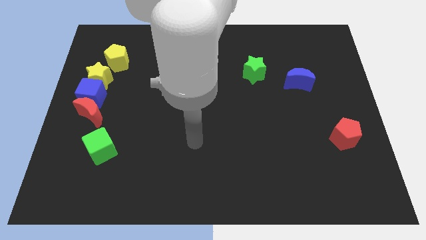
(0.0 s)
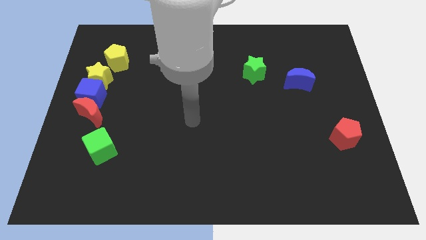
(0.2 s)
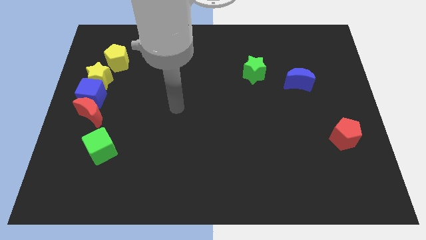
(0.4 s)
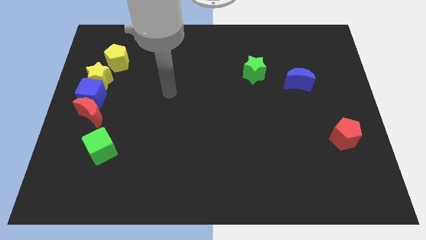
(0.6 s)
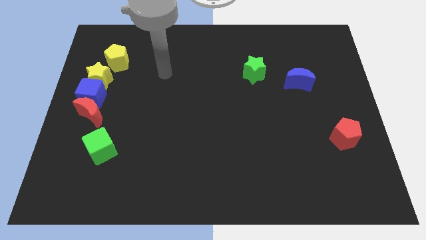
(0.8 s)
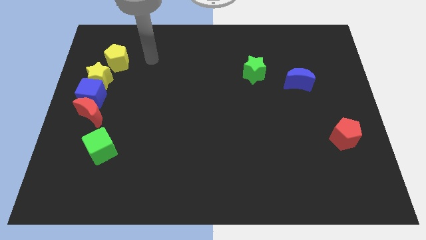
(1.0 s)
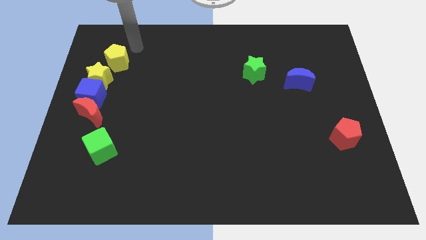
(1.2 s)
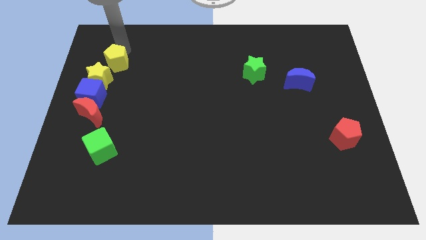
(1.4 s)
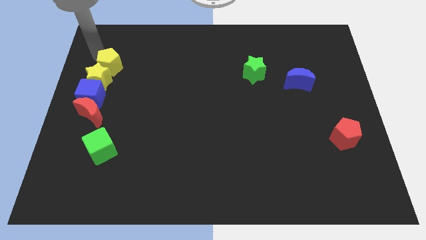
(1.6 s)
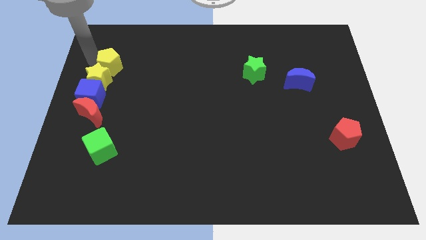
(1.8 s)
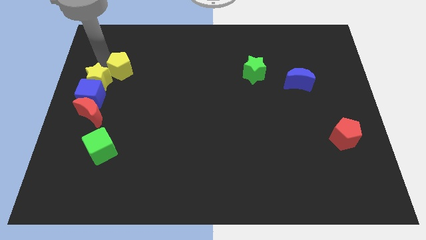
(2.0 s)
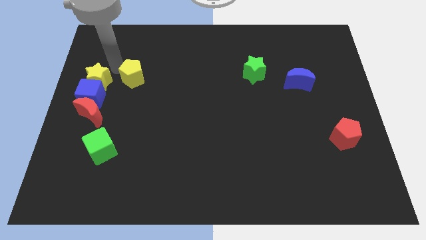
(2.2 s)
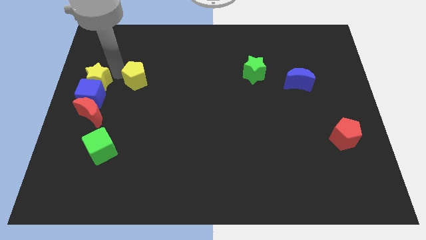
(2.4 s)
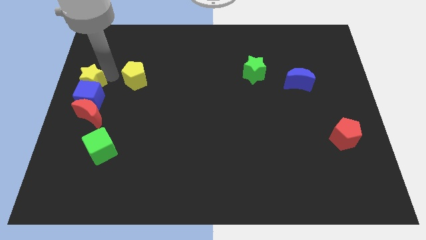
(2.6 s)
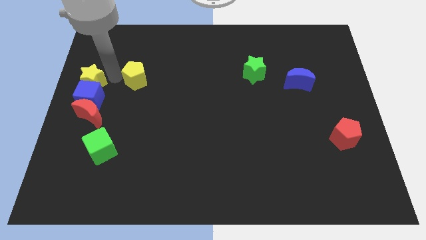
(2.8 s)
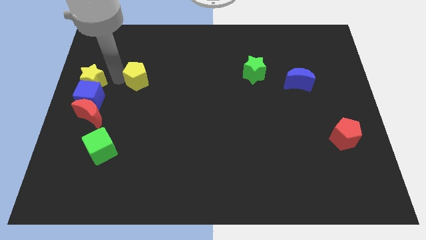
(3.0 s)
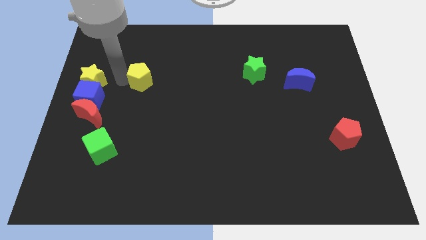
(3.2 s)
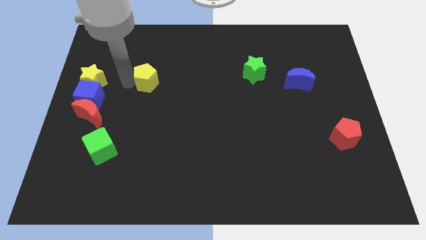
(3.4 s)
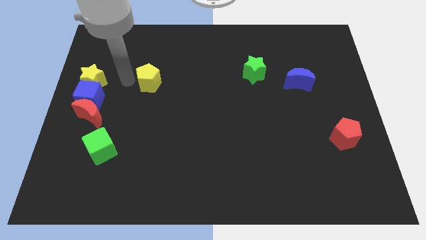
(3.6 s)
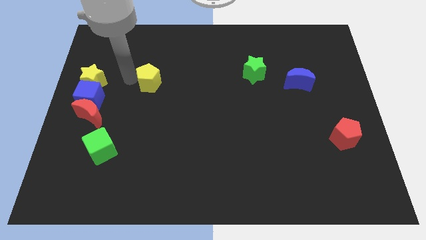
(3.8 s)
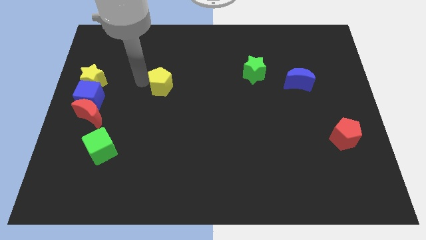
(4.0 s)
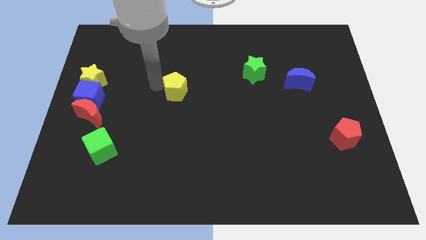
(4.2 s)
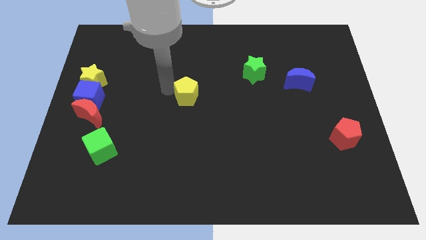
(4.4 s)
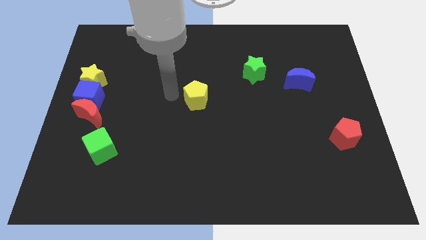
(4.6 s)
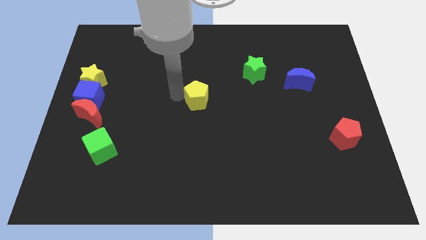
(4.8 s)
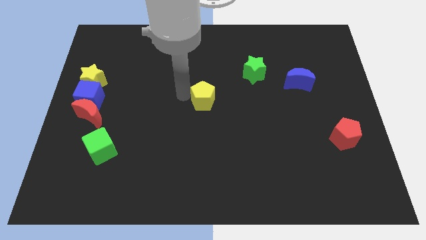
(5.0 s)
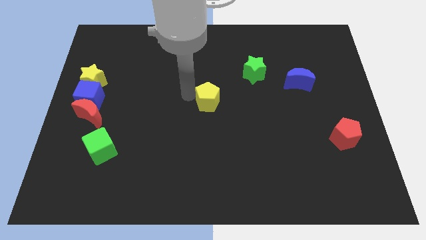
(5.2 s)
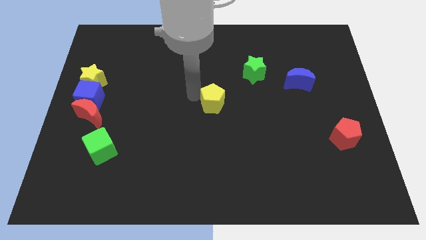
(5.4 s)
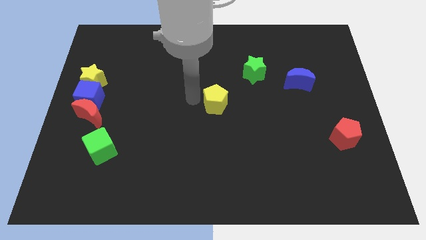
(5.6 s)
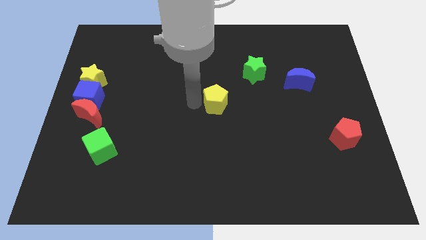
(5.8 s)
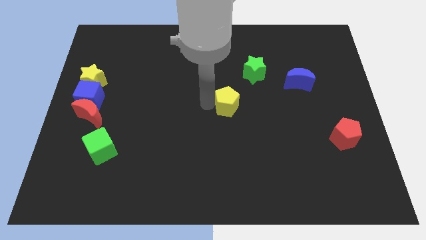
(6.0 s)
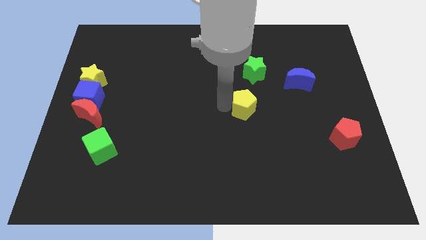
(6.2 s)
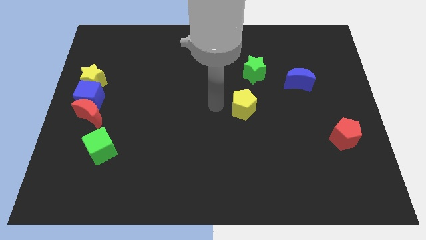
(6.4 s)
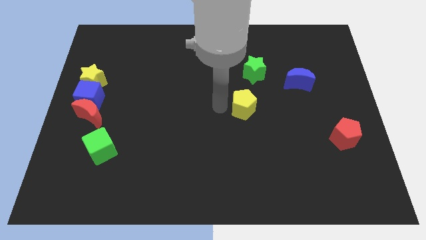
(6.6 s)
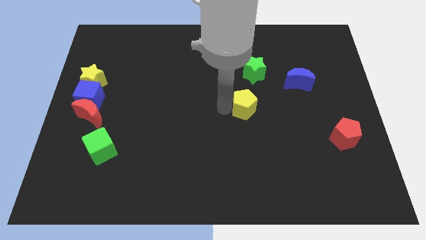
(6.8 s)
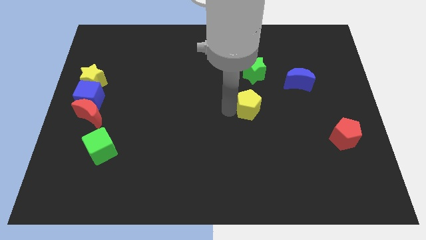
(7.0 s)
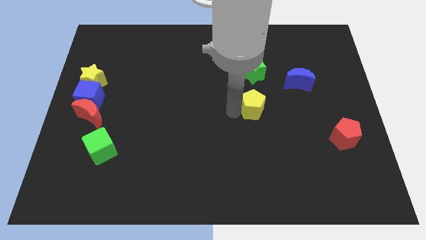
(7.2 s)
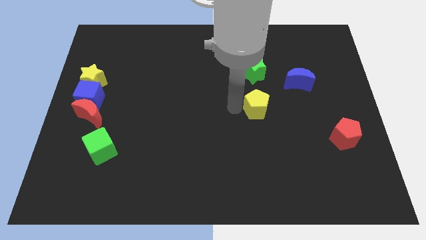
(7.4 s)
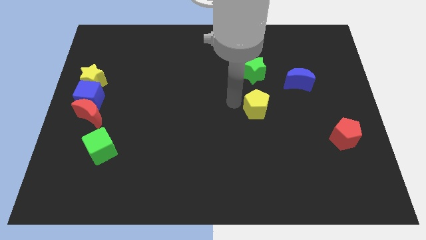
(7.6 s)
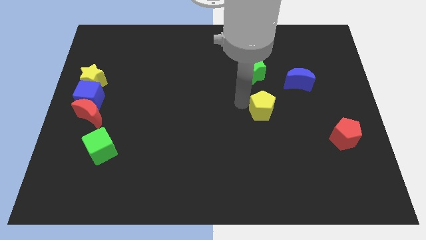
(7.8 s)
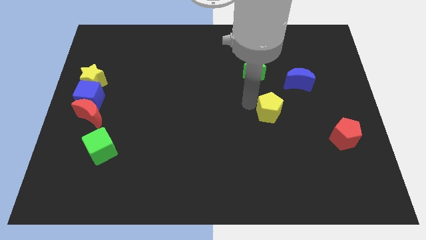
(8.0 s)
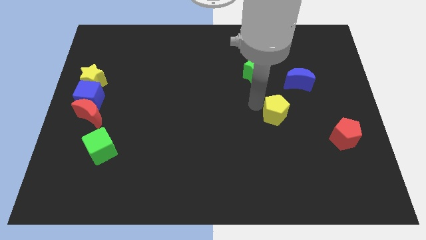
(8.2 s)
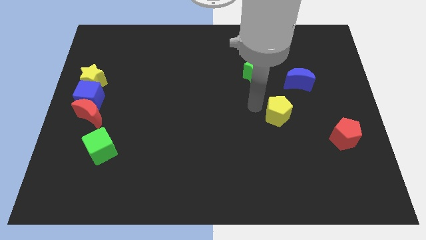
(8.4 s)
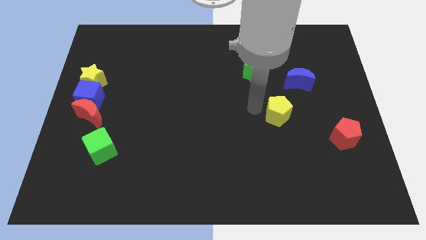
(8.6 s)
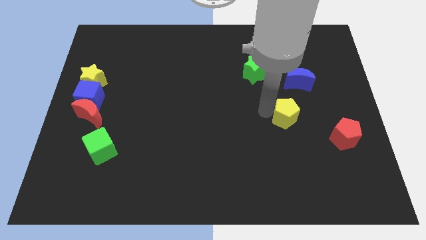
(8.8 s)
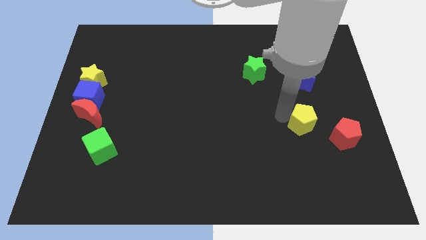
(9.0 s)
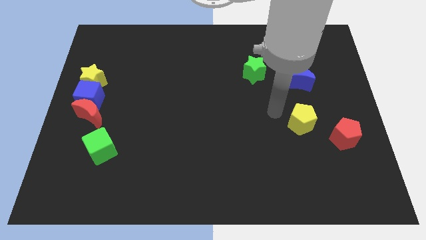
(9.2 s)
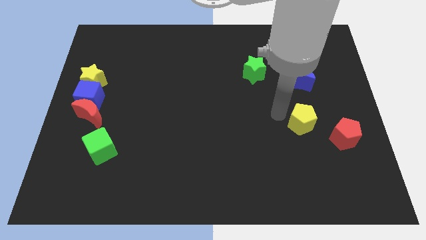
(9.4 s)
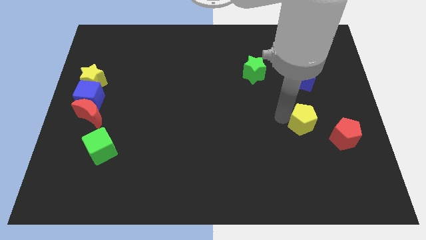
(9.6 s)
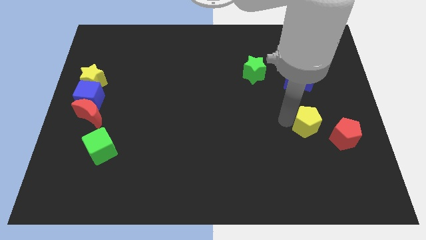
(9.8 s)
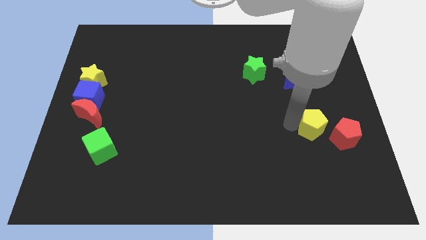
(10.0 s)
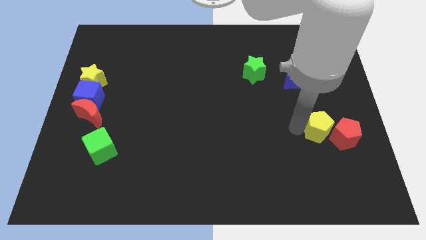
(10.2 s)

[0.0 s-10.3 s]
move the yellow pentagon to the red pentagon

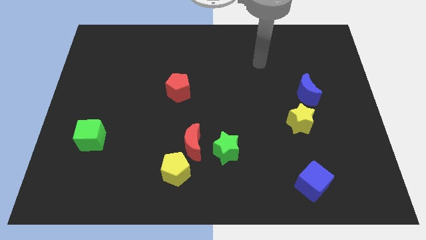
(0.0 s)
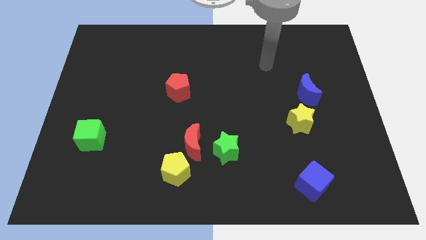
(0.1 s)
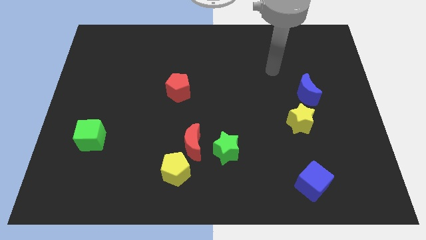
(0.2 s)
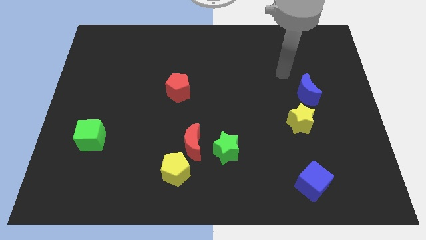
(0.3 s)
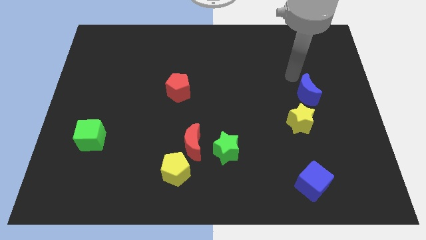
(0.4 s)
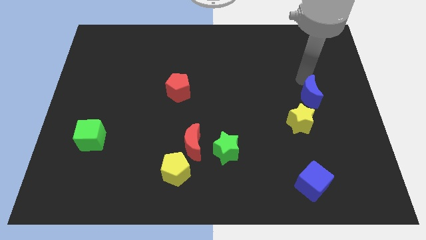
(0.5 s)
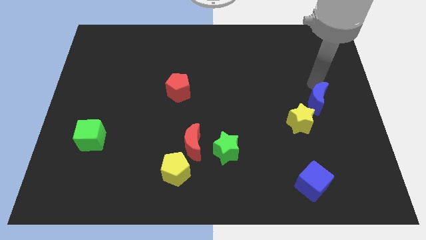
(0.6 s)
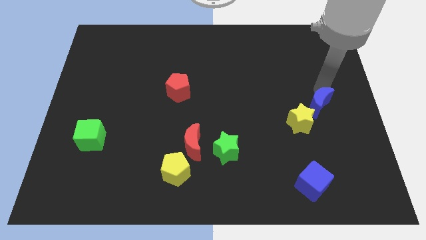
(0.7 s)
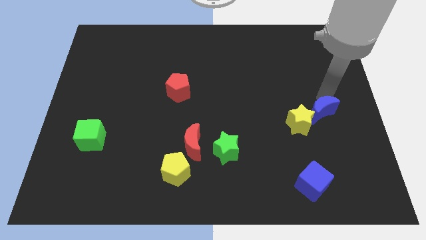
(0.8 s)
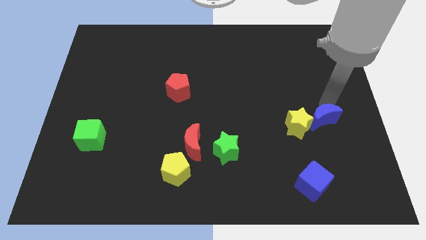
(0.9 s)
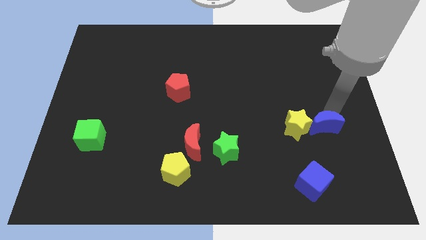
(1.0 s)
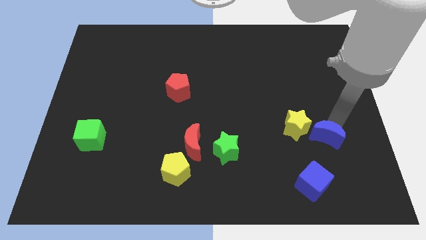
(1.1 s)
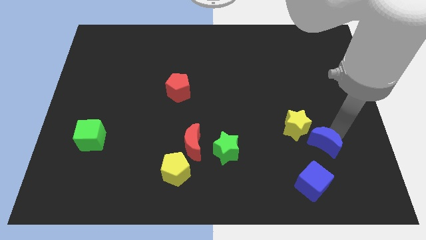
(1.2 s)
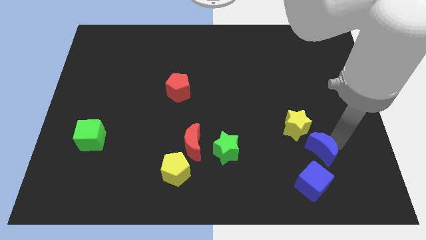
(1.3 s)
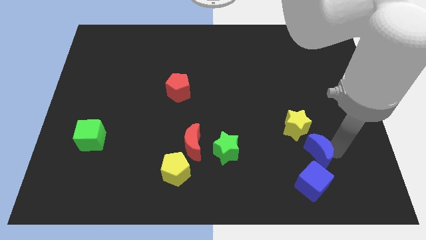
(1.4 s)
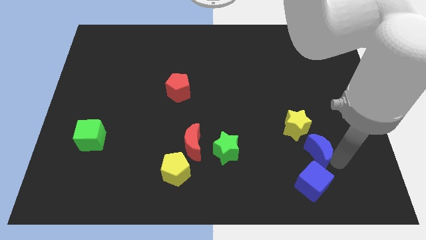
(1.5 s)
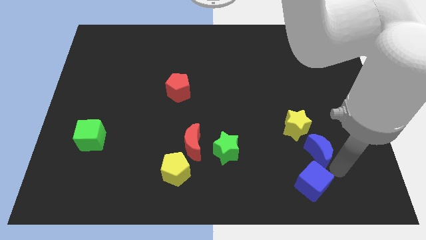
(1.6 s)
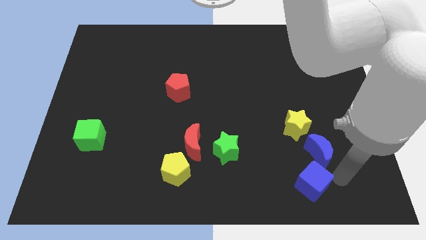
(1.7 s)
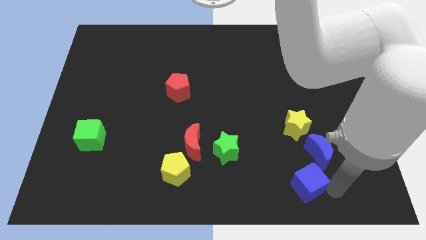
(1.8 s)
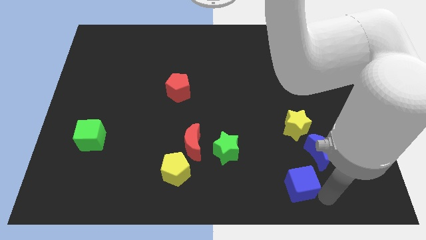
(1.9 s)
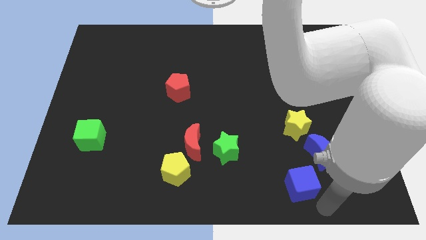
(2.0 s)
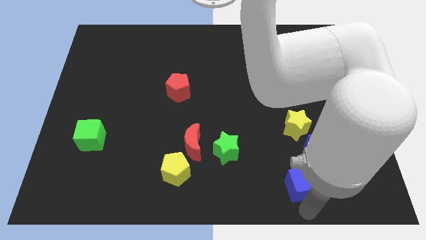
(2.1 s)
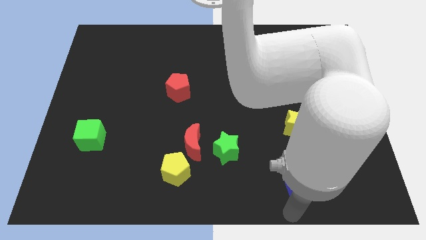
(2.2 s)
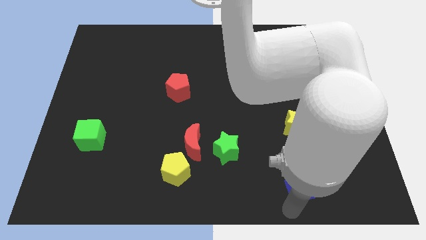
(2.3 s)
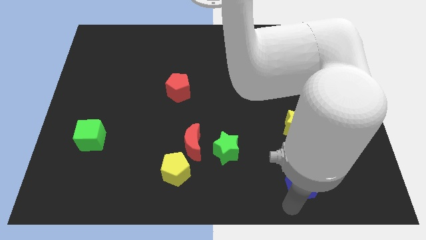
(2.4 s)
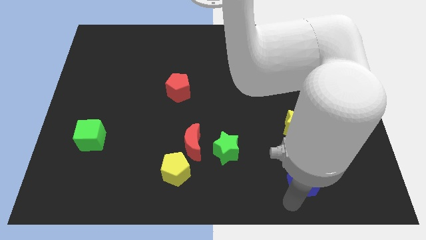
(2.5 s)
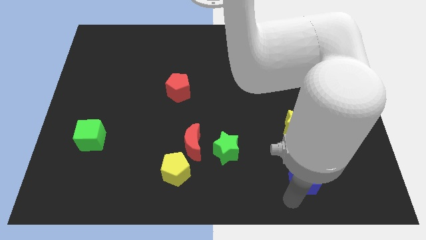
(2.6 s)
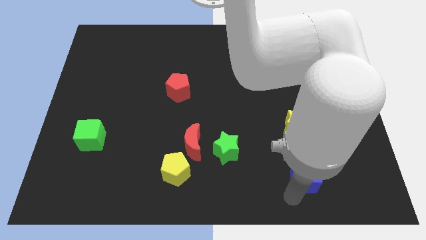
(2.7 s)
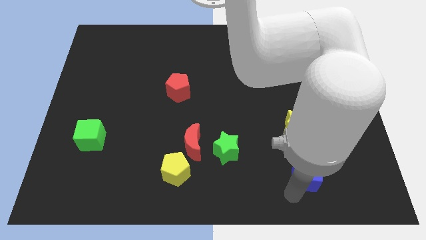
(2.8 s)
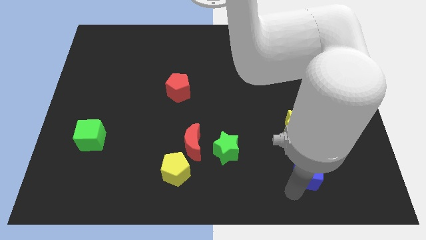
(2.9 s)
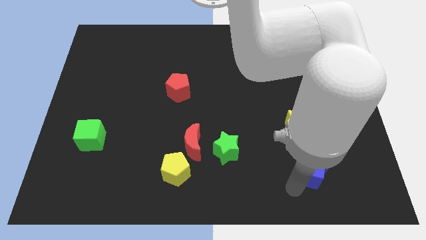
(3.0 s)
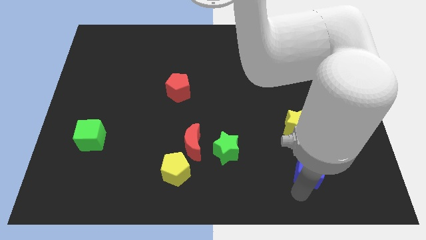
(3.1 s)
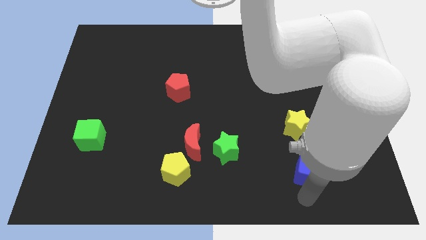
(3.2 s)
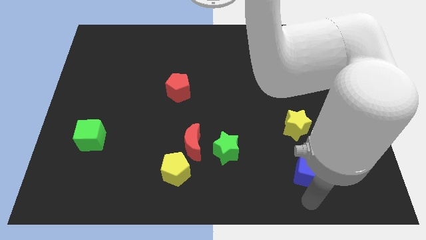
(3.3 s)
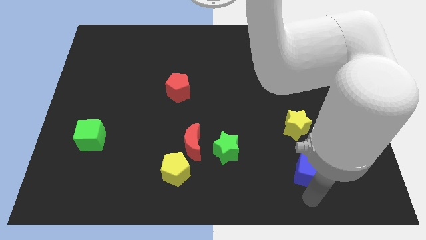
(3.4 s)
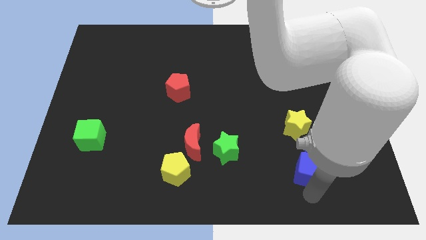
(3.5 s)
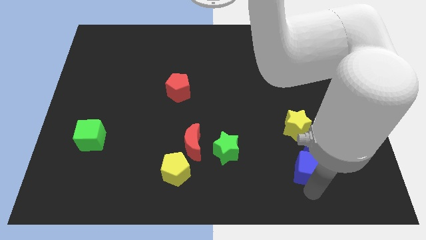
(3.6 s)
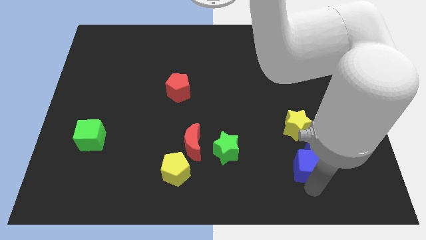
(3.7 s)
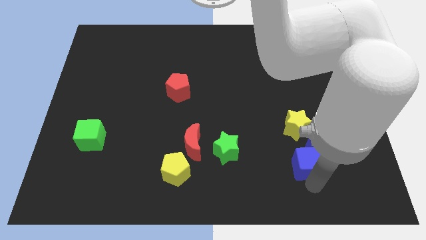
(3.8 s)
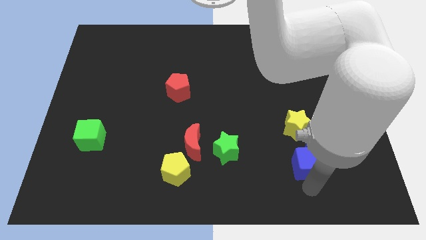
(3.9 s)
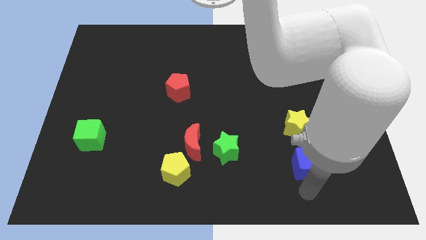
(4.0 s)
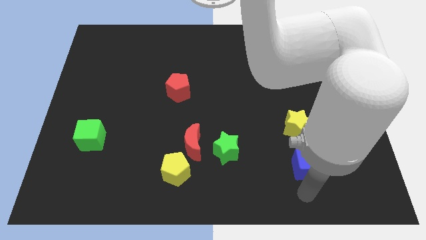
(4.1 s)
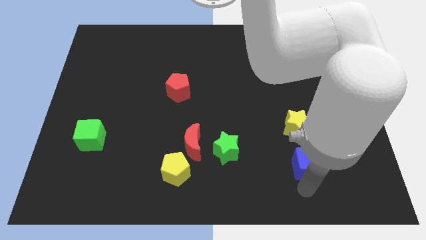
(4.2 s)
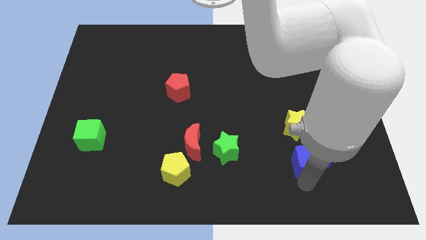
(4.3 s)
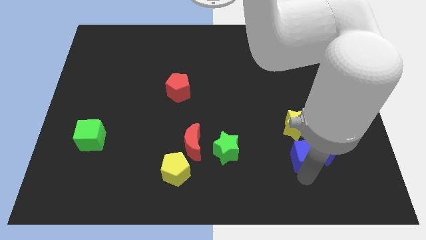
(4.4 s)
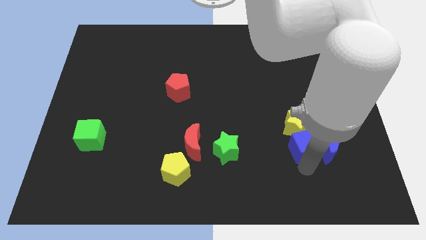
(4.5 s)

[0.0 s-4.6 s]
move the blue cube next to the yellow star
